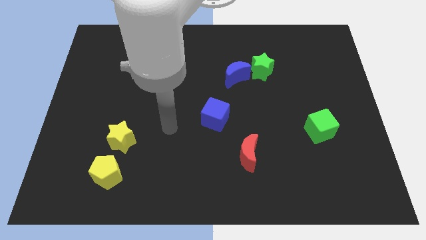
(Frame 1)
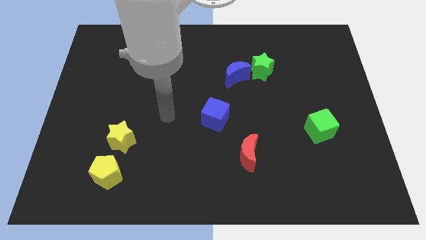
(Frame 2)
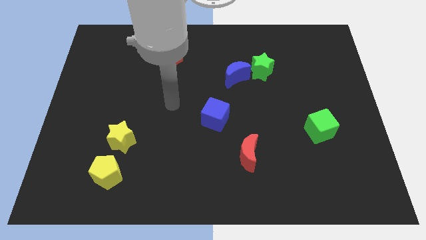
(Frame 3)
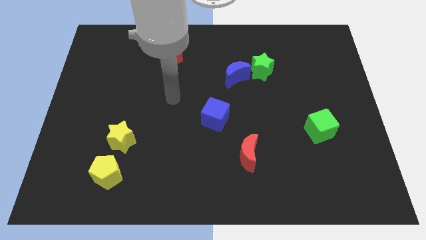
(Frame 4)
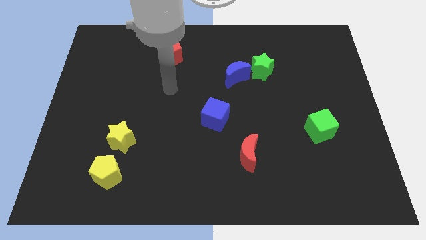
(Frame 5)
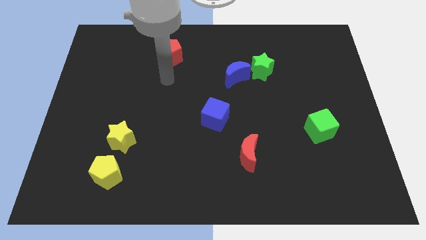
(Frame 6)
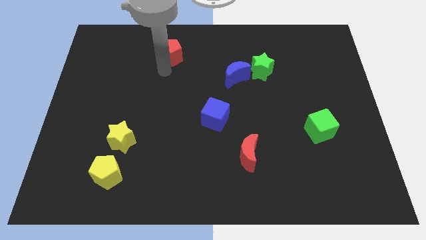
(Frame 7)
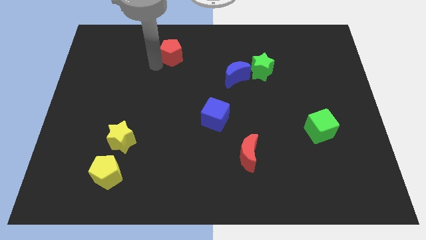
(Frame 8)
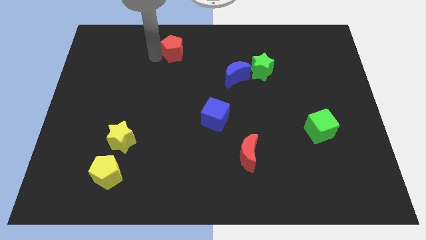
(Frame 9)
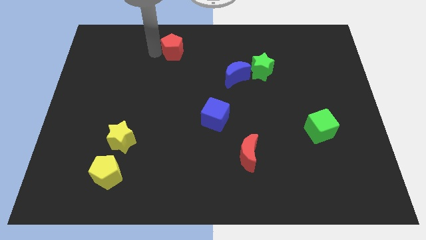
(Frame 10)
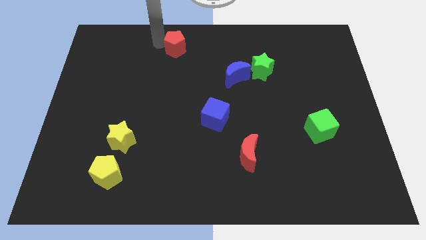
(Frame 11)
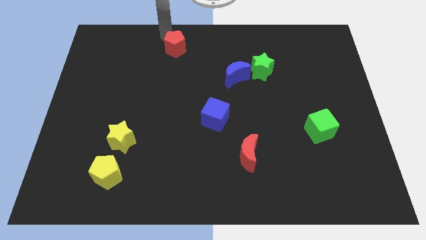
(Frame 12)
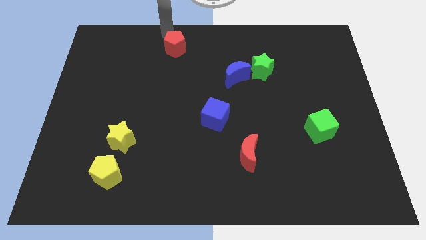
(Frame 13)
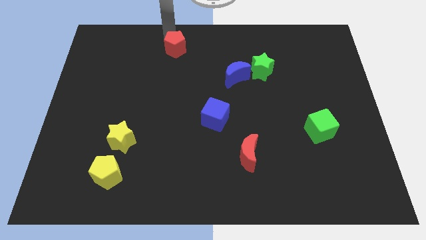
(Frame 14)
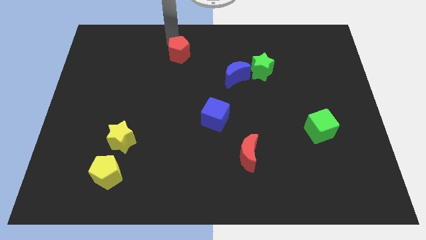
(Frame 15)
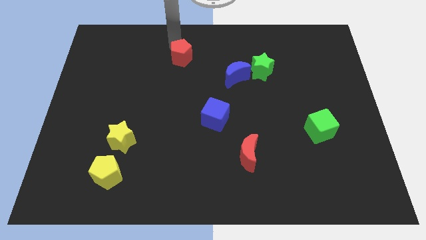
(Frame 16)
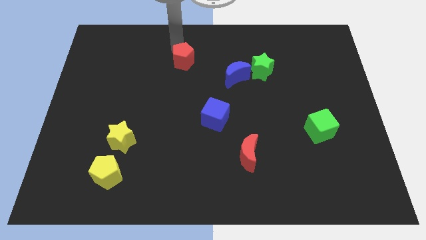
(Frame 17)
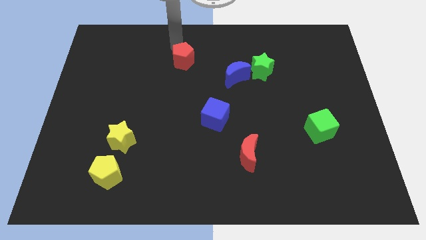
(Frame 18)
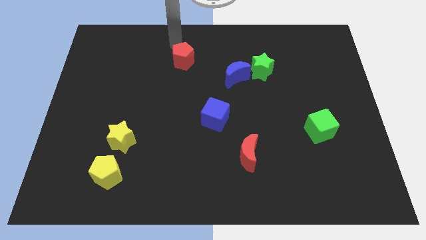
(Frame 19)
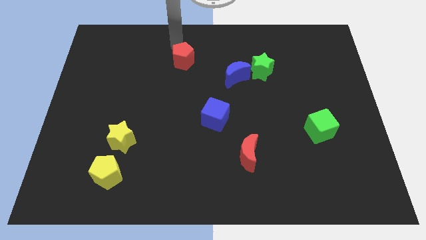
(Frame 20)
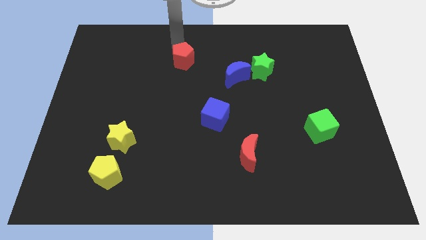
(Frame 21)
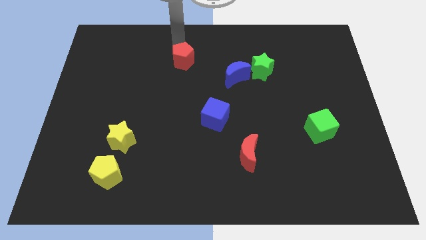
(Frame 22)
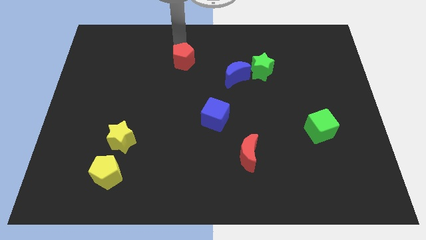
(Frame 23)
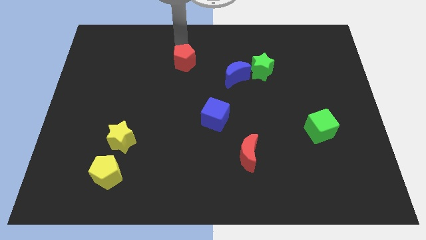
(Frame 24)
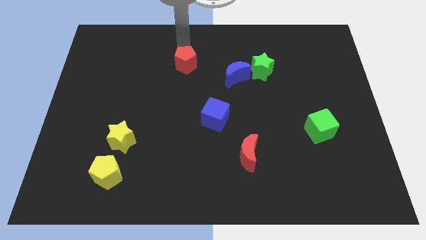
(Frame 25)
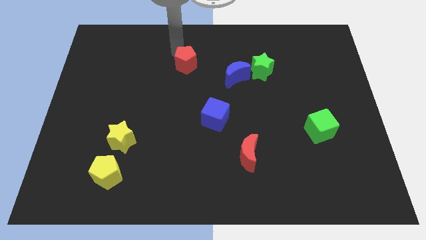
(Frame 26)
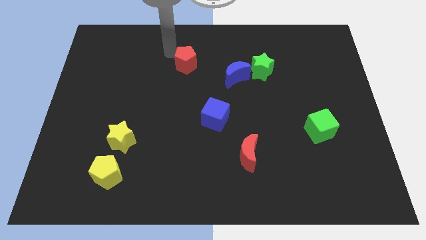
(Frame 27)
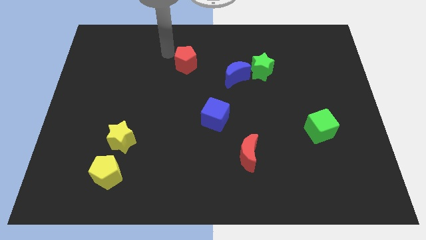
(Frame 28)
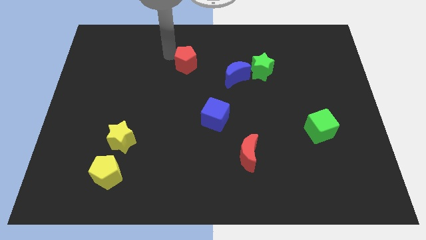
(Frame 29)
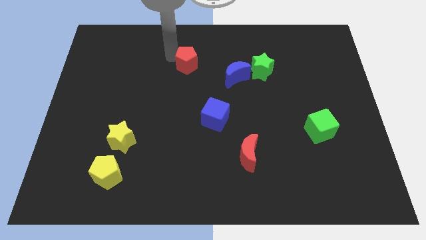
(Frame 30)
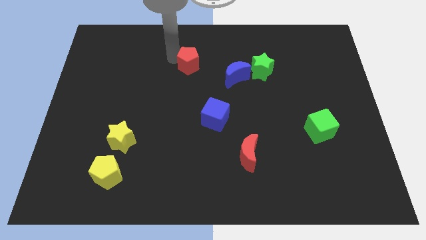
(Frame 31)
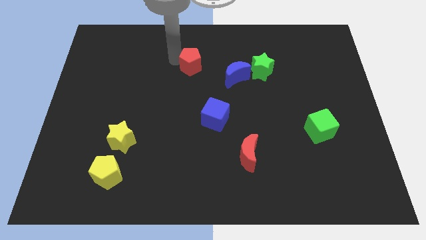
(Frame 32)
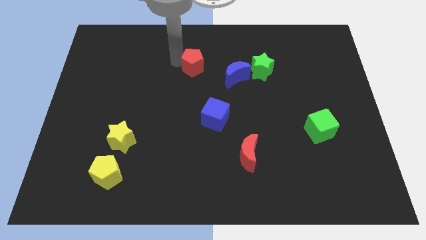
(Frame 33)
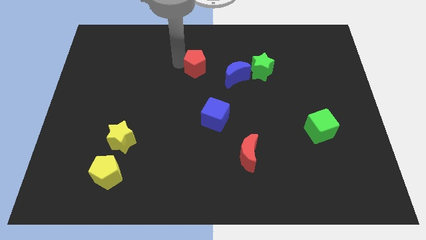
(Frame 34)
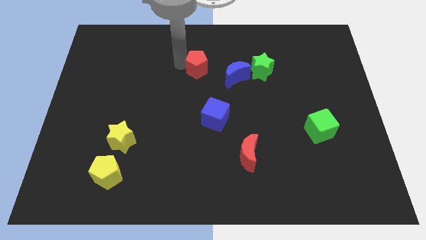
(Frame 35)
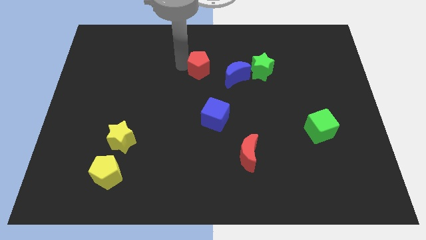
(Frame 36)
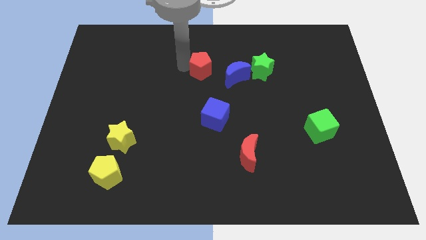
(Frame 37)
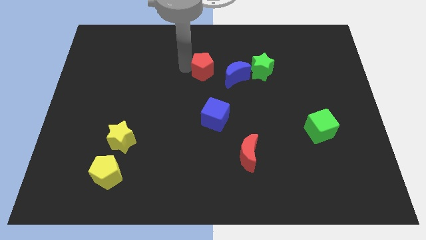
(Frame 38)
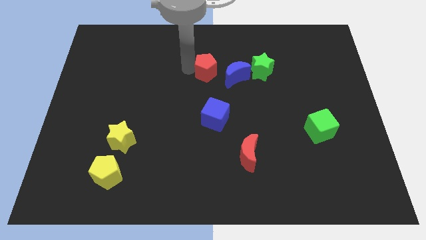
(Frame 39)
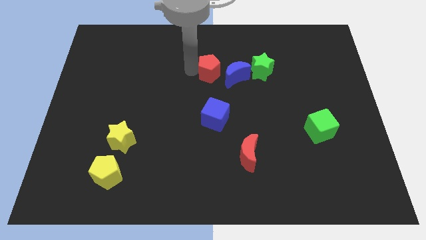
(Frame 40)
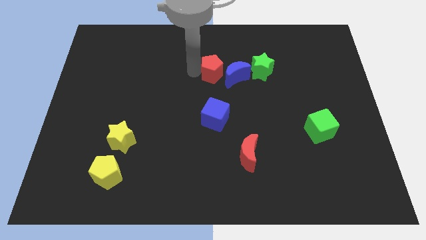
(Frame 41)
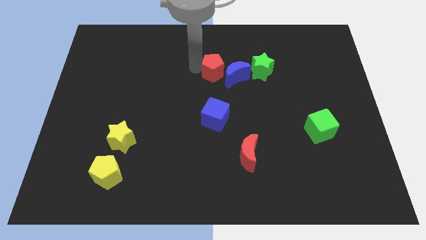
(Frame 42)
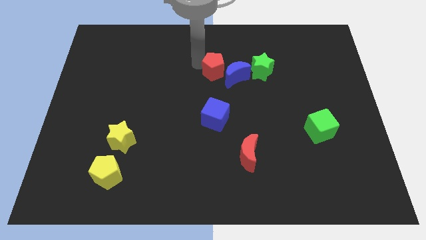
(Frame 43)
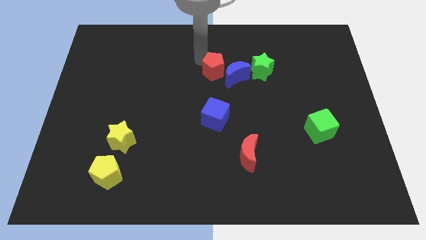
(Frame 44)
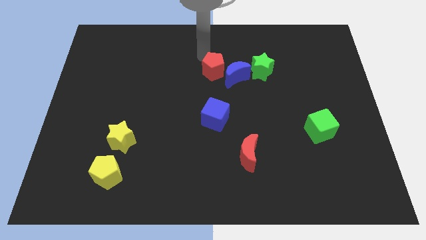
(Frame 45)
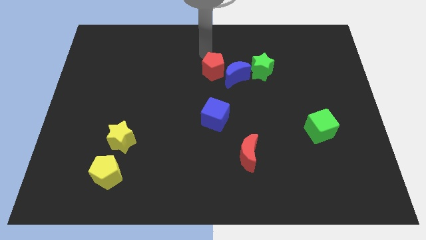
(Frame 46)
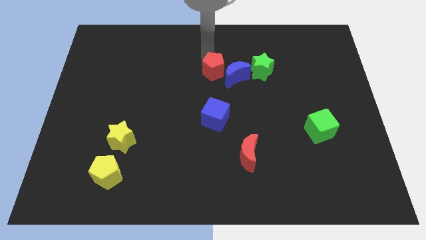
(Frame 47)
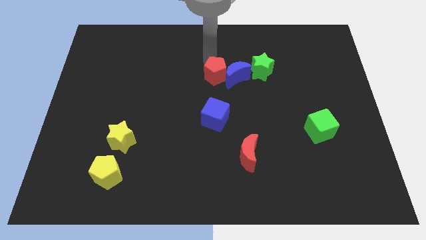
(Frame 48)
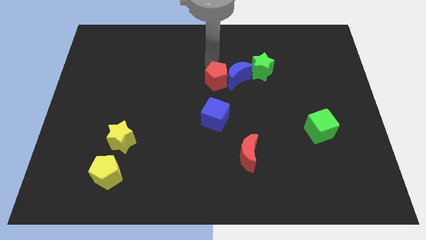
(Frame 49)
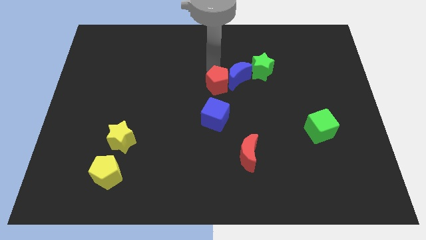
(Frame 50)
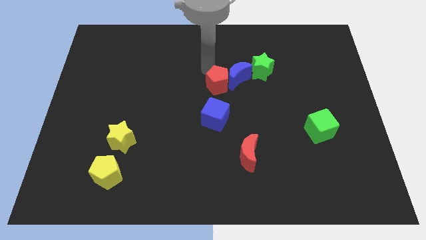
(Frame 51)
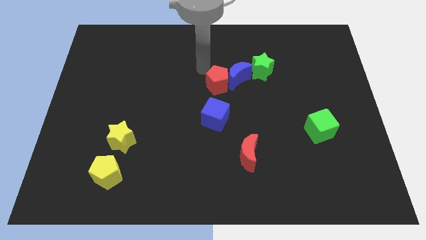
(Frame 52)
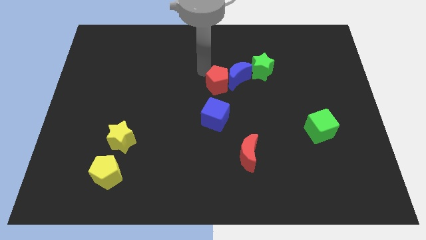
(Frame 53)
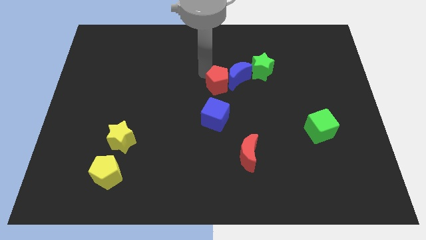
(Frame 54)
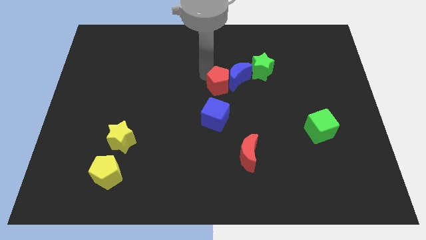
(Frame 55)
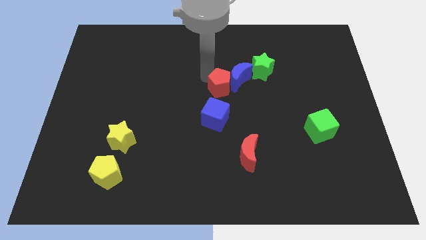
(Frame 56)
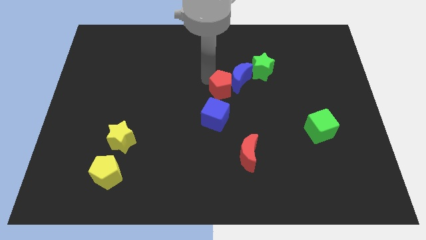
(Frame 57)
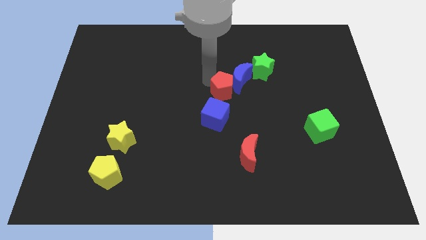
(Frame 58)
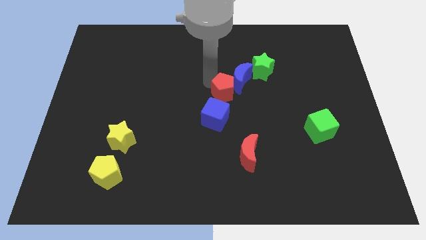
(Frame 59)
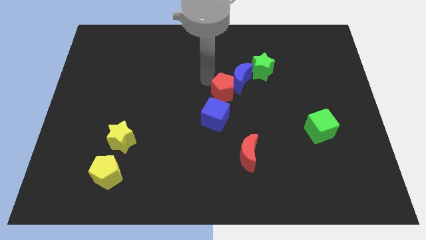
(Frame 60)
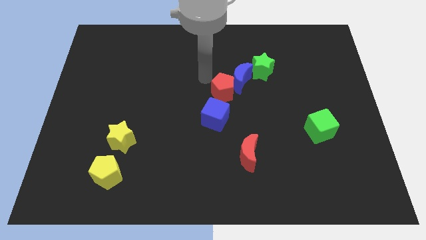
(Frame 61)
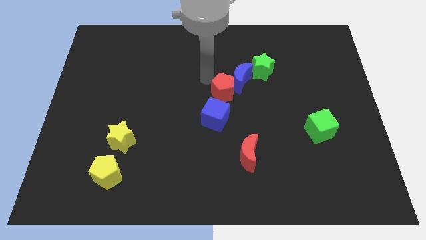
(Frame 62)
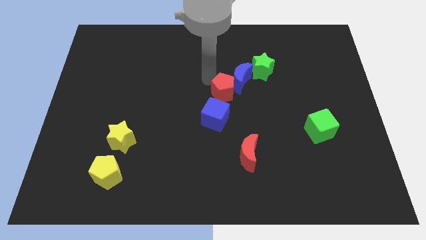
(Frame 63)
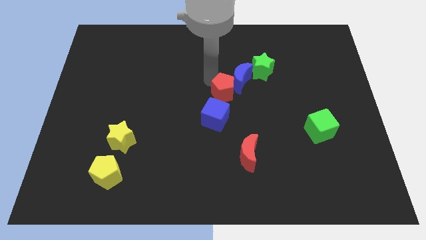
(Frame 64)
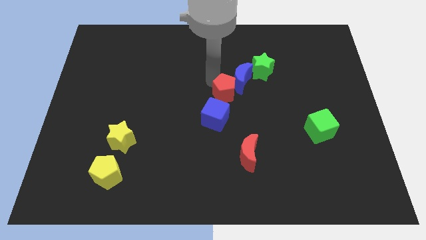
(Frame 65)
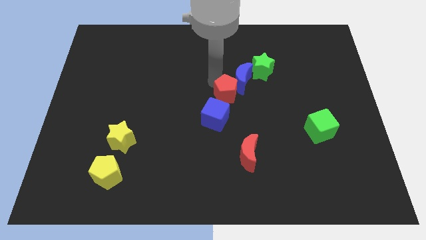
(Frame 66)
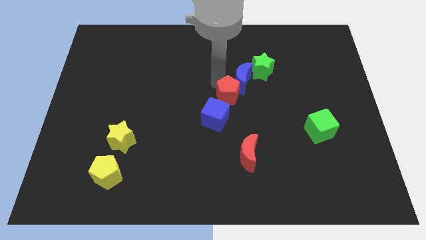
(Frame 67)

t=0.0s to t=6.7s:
move the red pentagon diagonally downwards and right

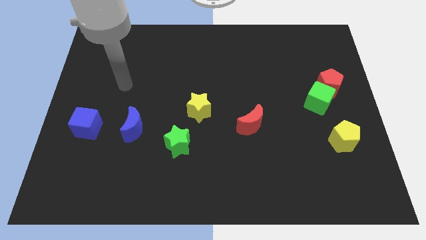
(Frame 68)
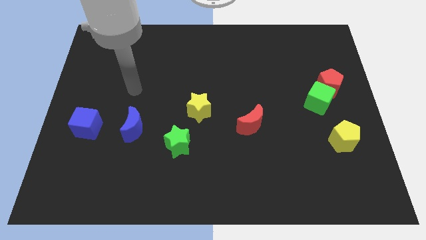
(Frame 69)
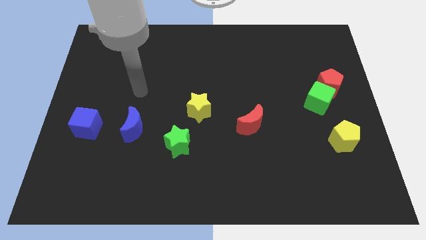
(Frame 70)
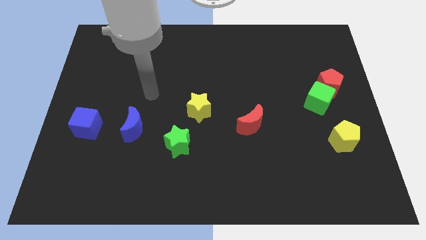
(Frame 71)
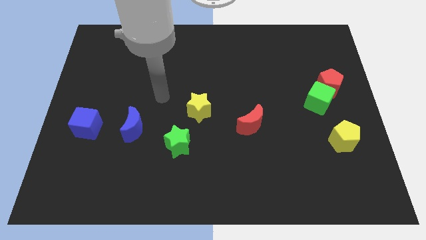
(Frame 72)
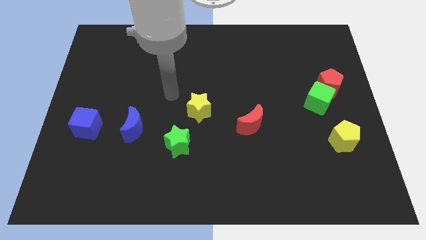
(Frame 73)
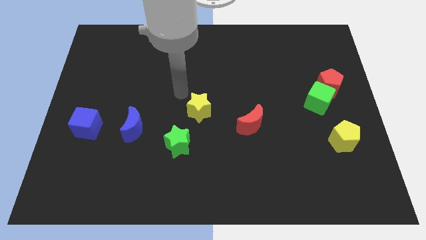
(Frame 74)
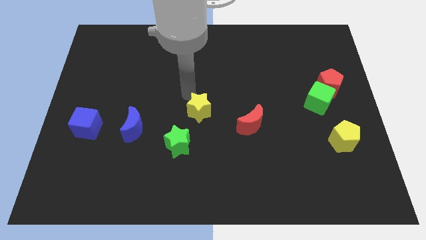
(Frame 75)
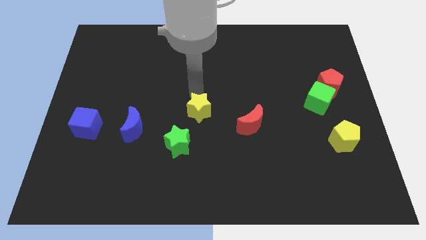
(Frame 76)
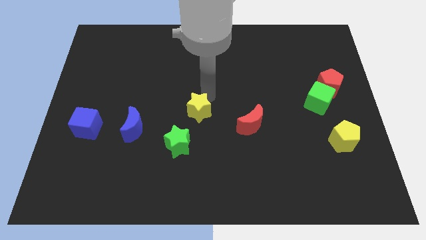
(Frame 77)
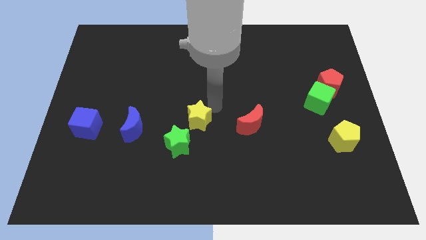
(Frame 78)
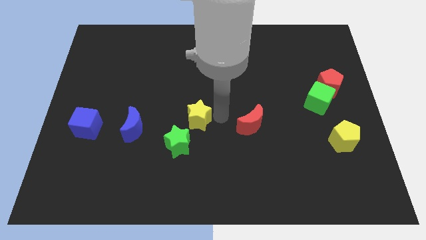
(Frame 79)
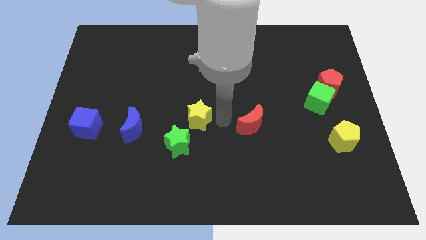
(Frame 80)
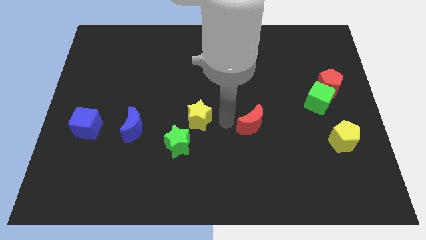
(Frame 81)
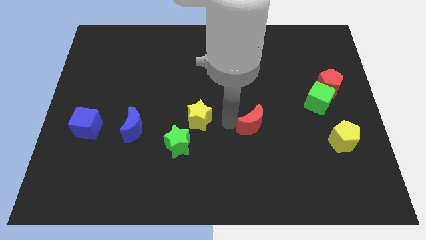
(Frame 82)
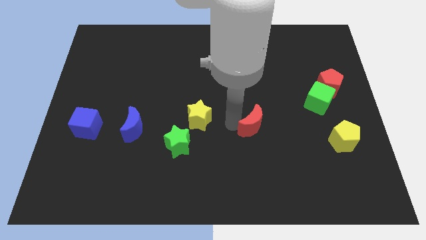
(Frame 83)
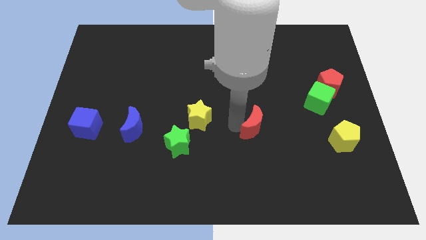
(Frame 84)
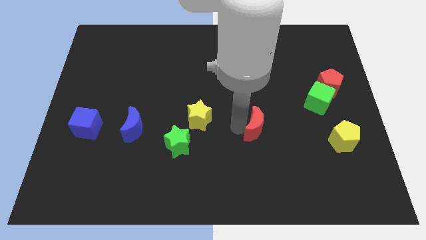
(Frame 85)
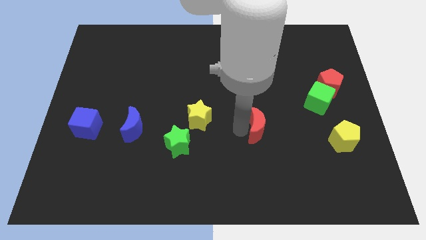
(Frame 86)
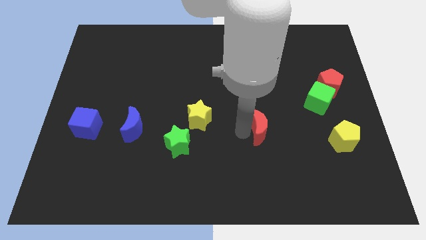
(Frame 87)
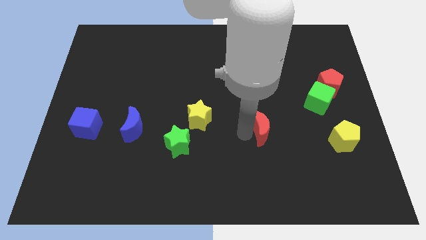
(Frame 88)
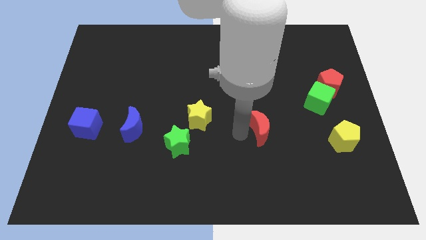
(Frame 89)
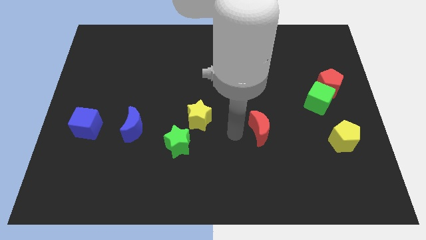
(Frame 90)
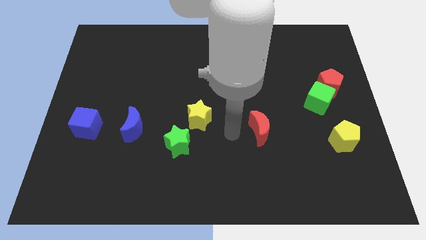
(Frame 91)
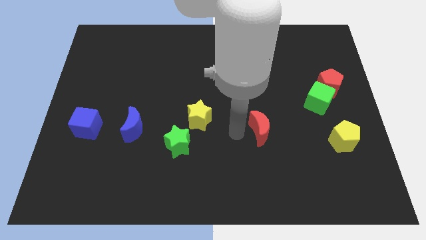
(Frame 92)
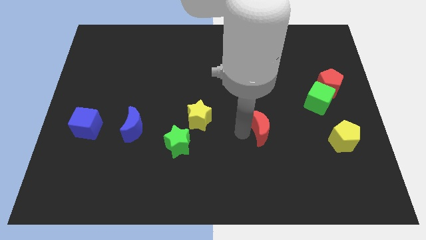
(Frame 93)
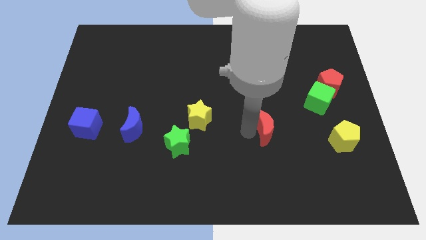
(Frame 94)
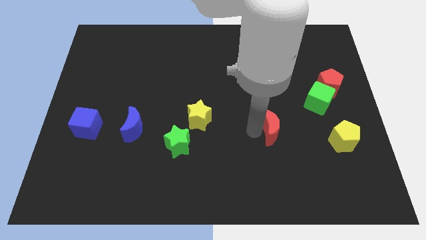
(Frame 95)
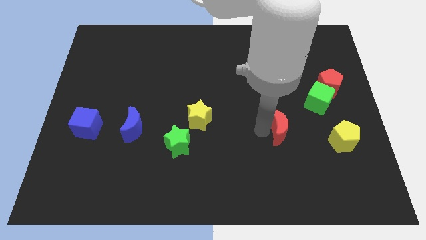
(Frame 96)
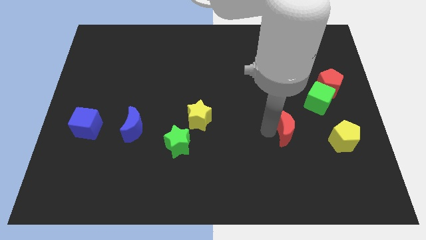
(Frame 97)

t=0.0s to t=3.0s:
push the red moon to the right a little bit
